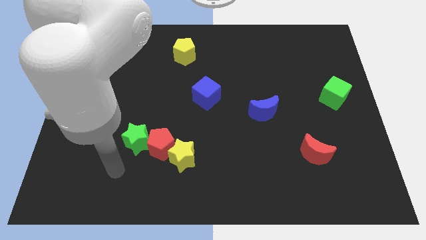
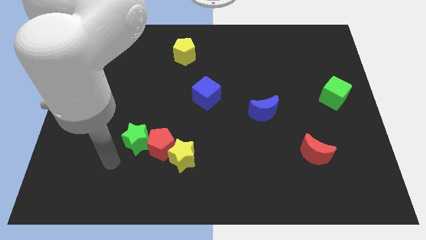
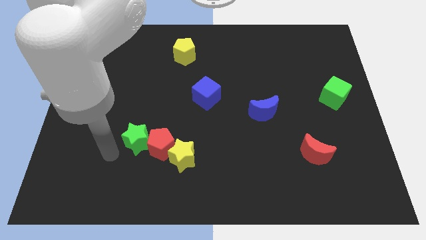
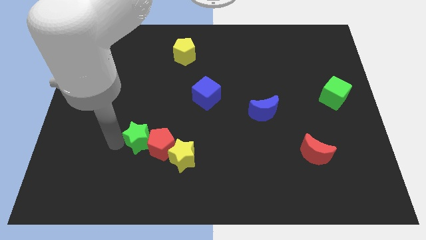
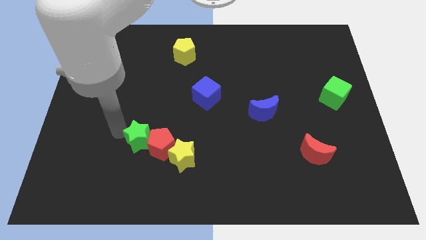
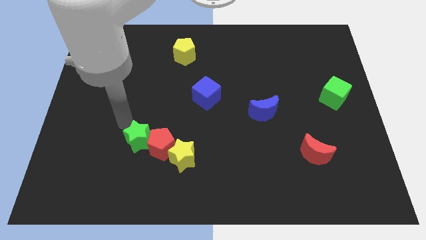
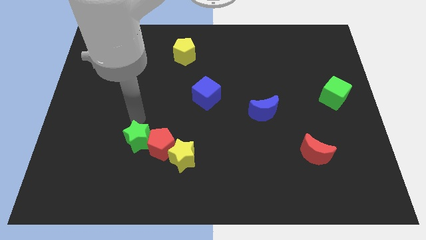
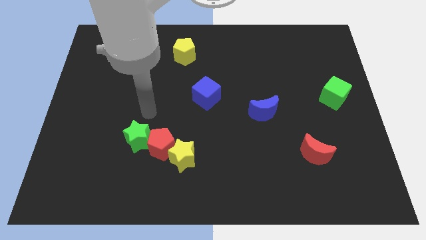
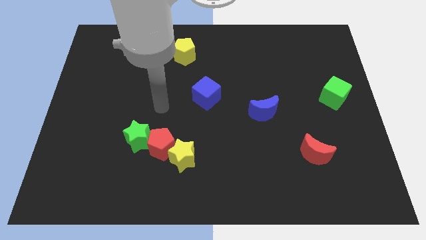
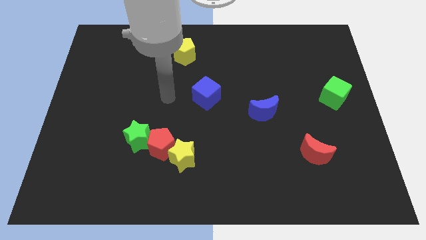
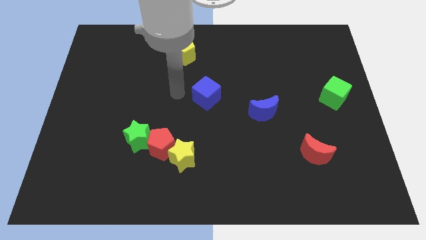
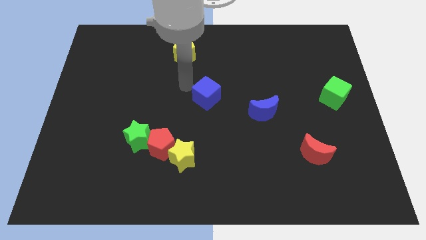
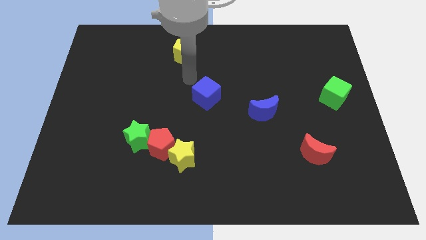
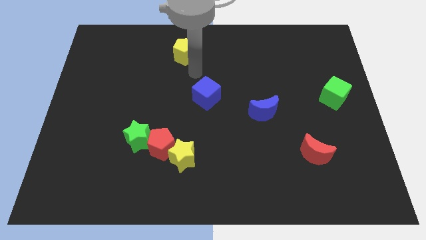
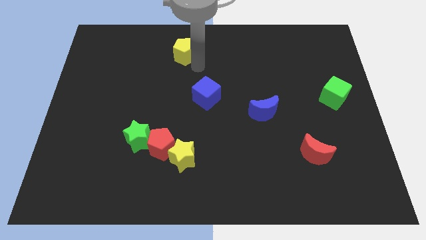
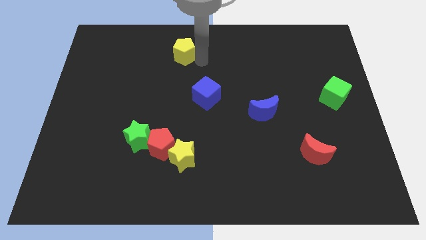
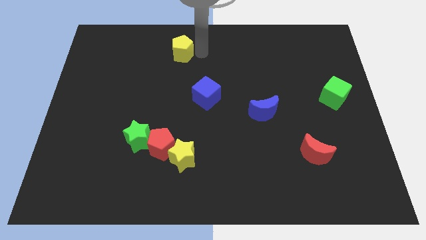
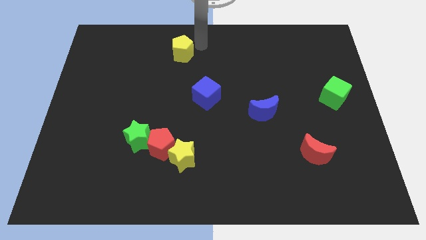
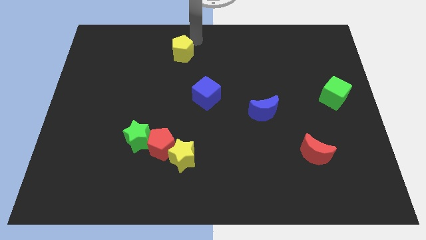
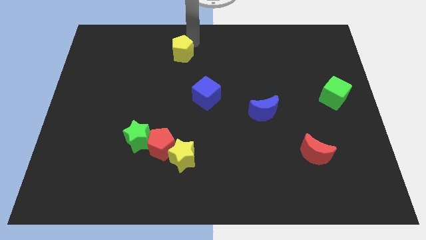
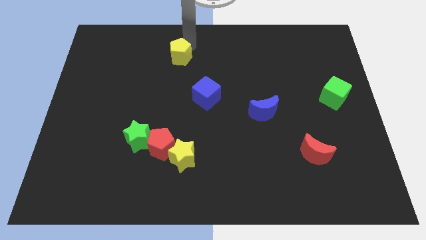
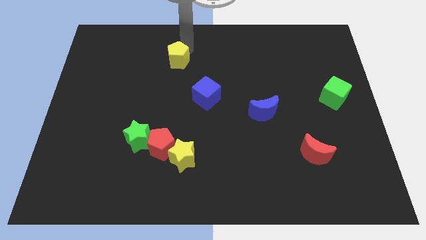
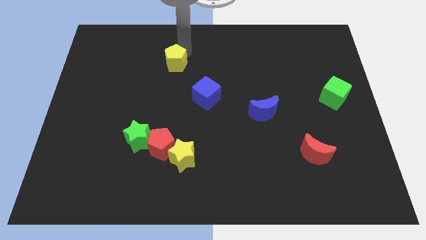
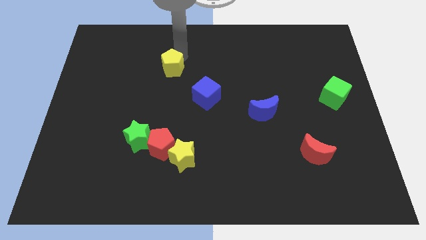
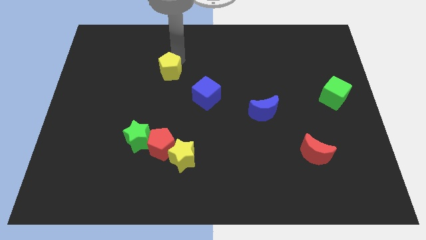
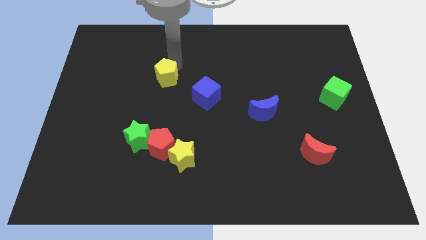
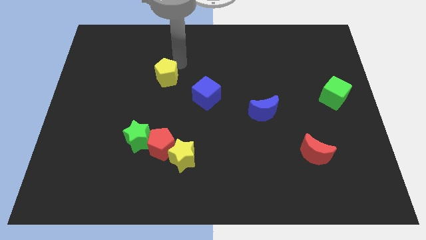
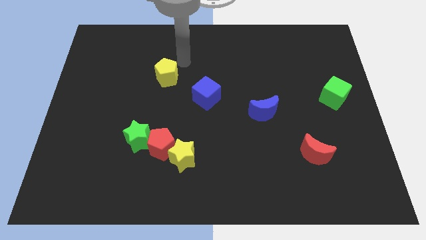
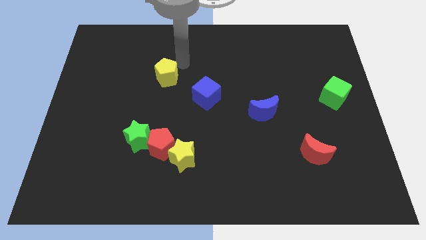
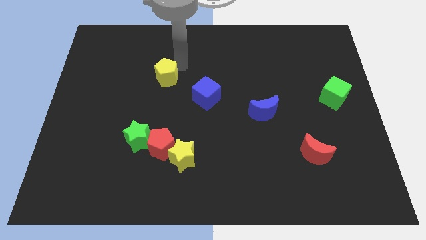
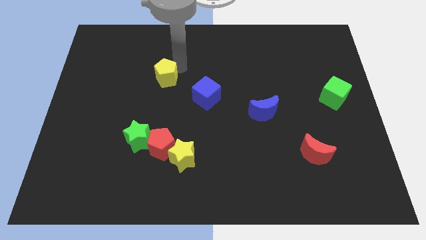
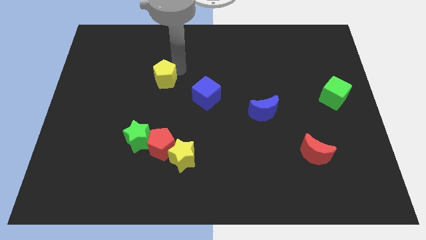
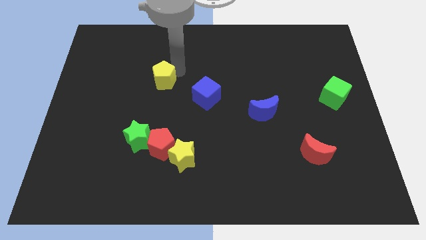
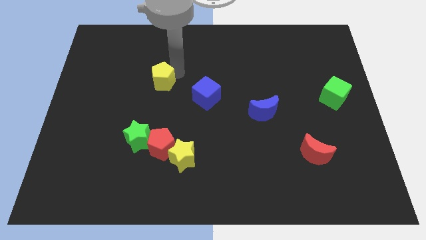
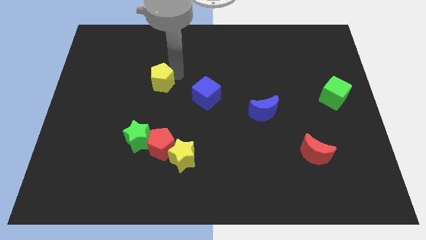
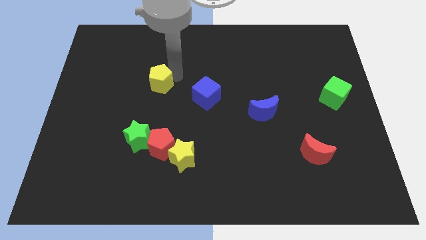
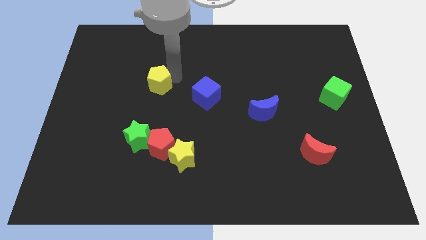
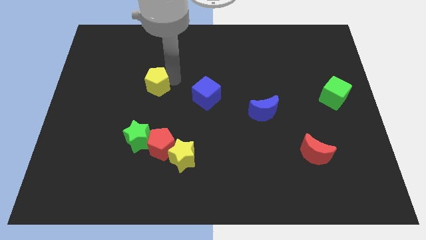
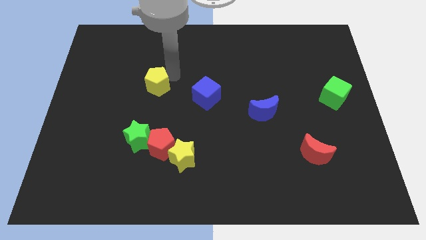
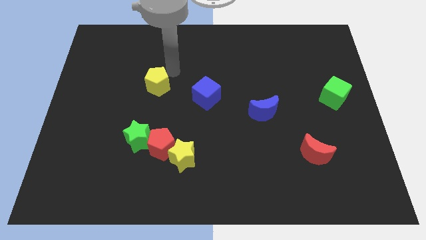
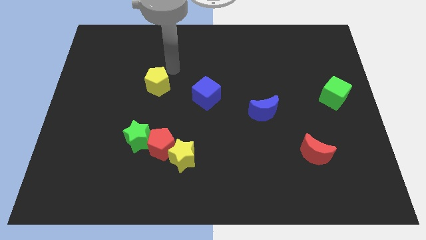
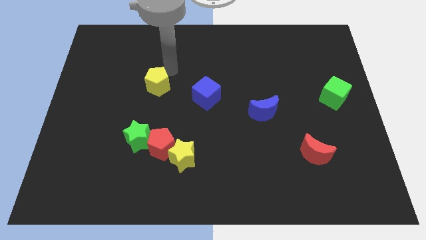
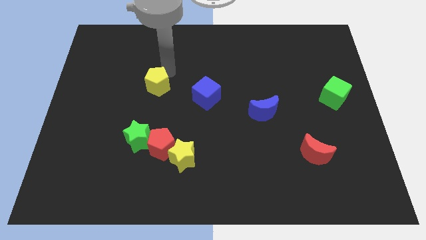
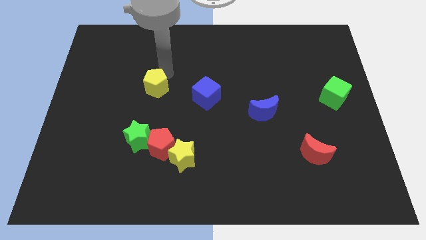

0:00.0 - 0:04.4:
push the yellow pentagon to the top side of the green star

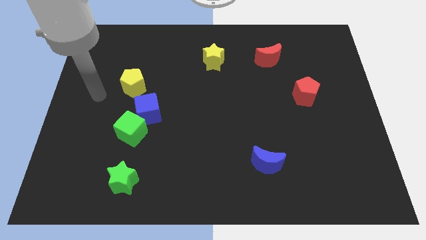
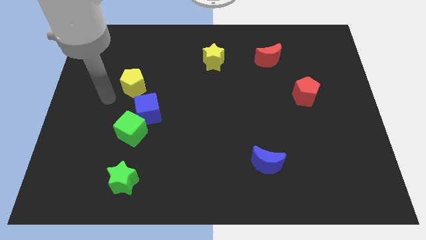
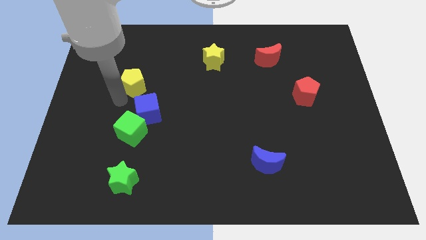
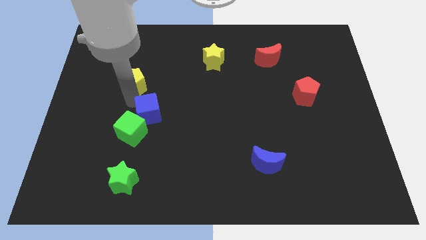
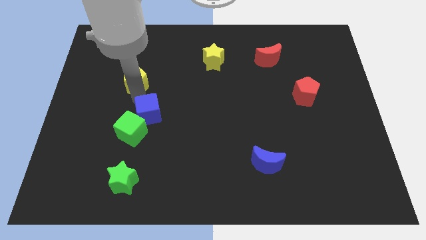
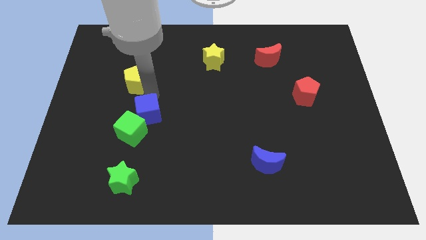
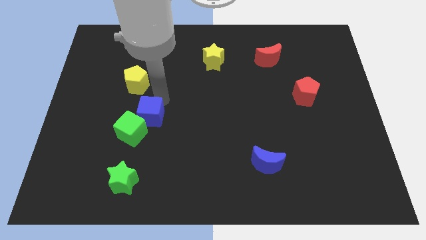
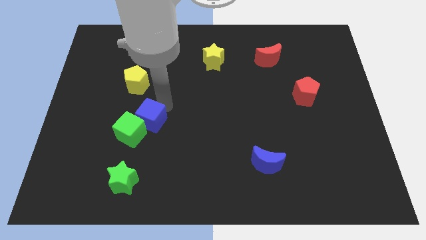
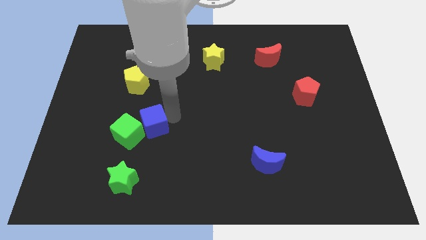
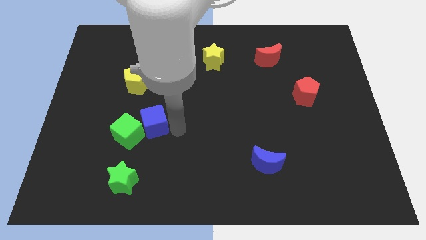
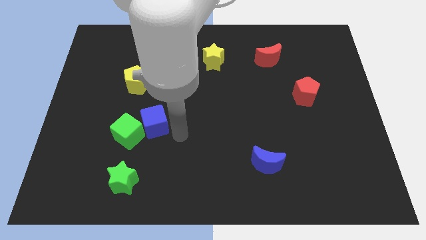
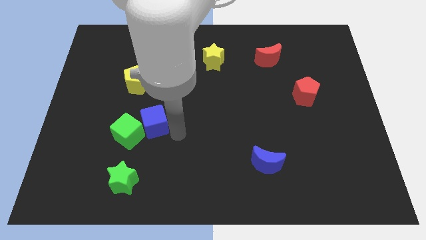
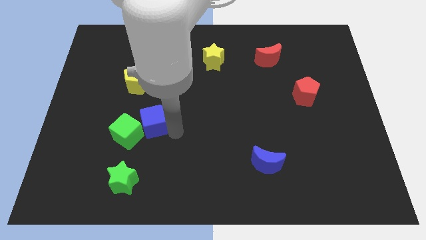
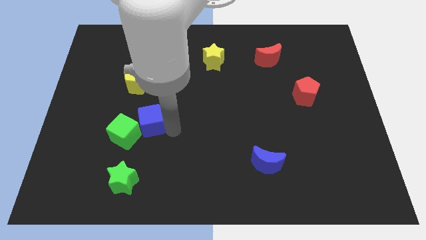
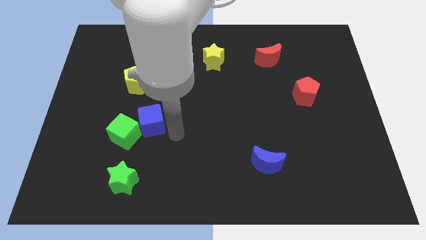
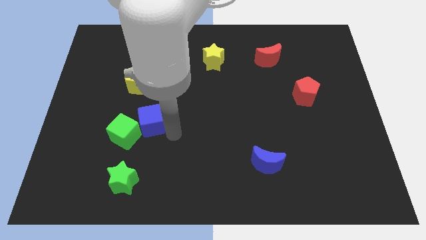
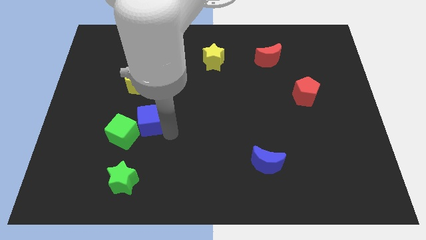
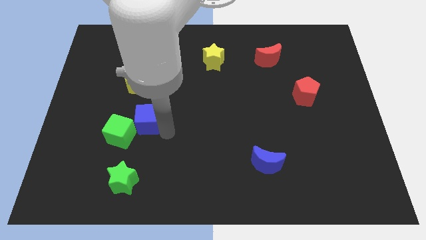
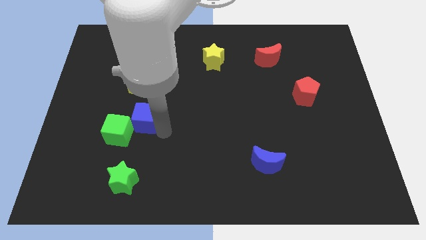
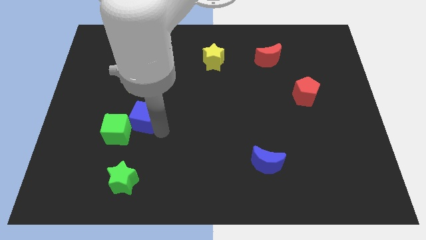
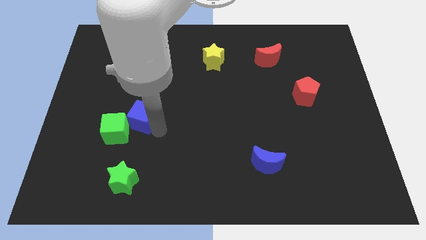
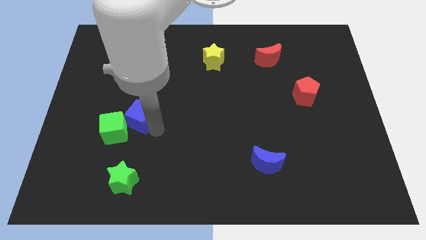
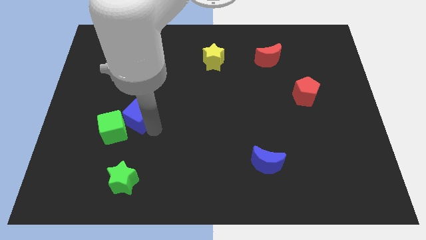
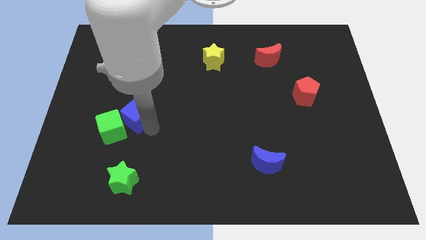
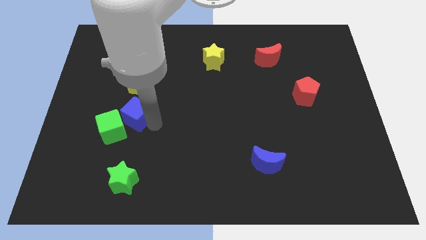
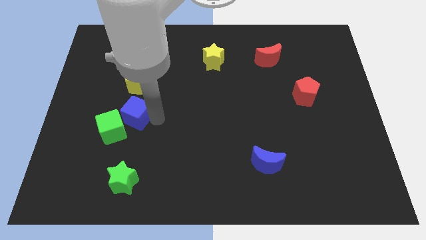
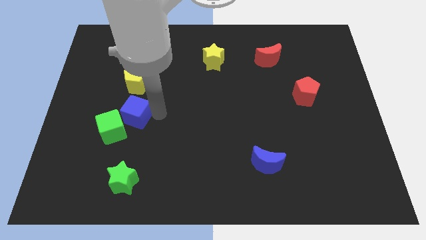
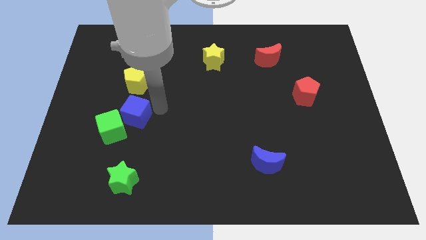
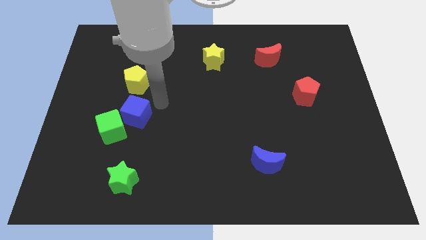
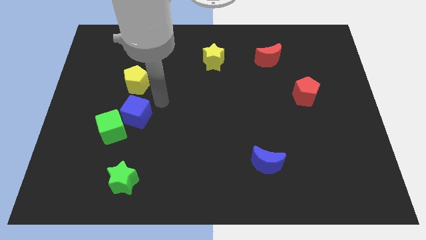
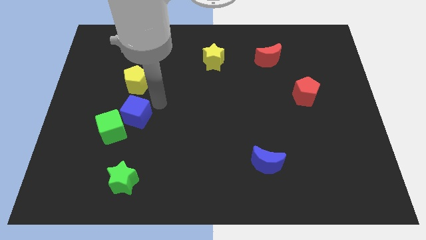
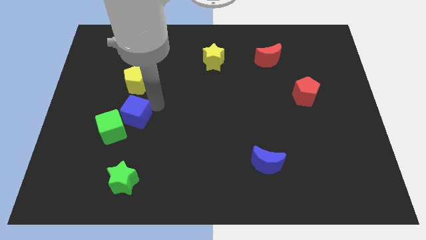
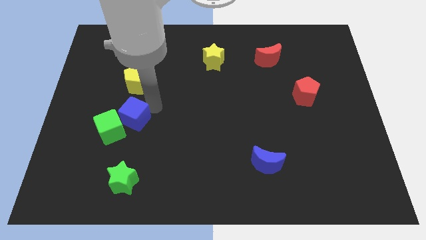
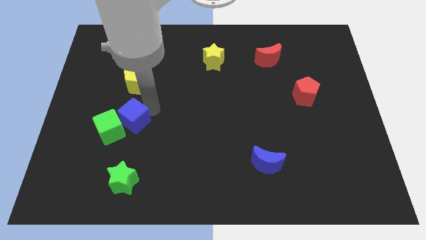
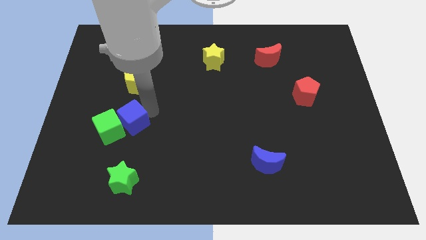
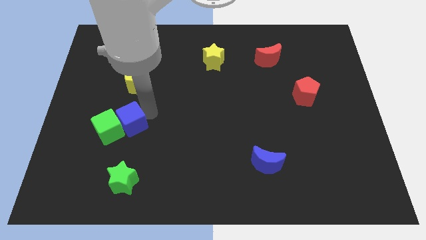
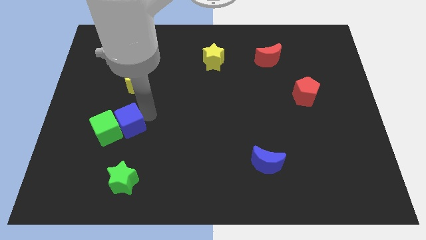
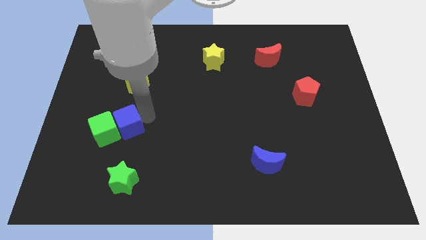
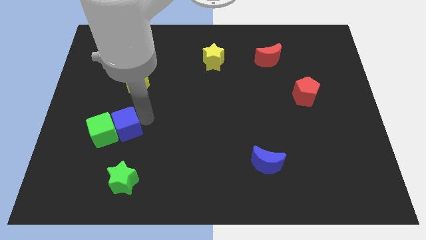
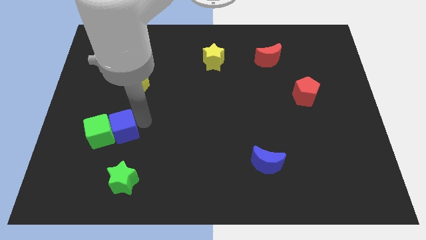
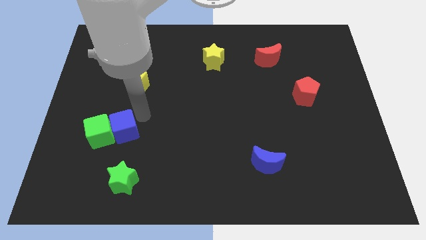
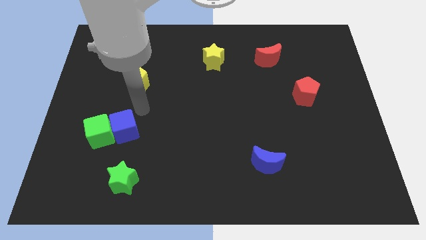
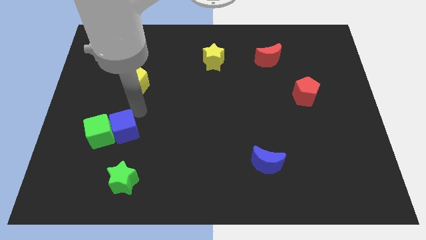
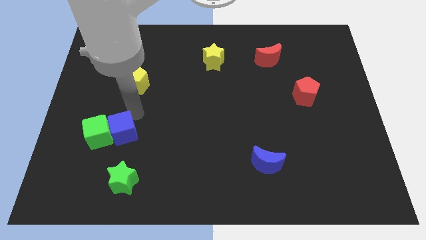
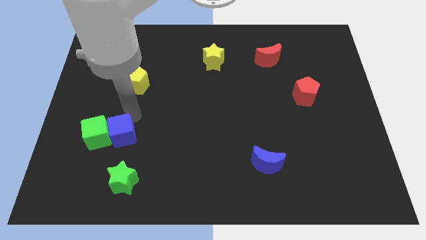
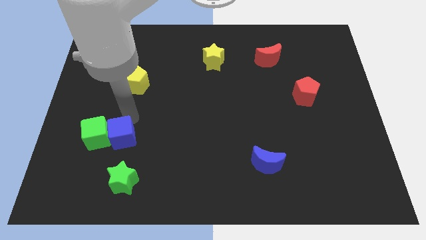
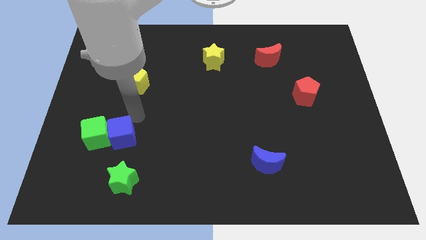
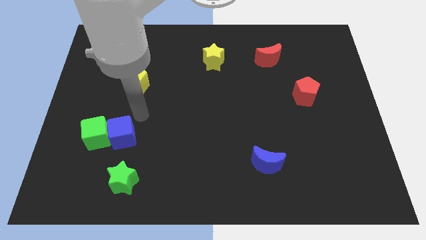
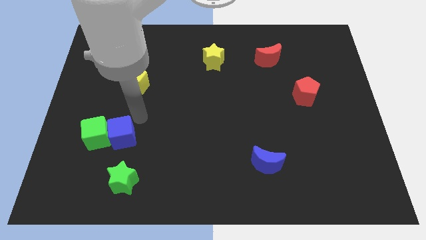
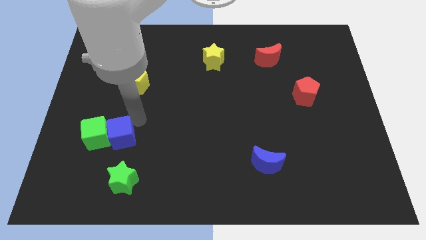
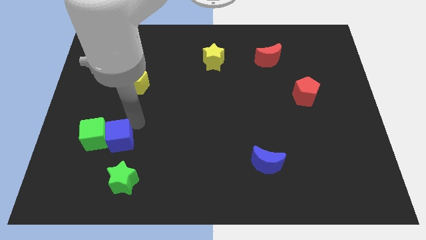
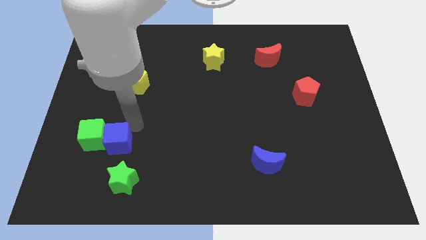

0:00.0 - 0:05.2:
move the blue cube to the top left of the green star
